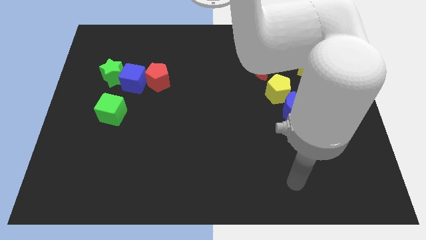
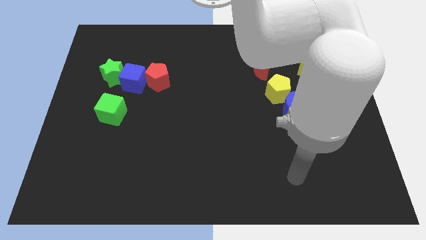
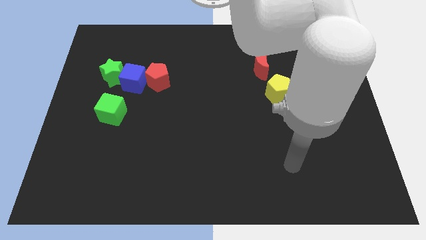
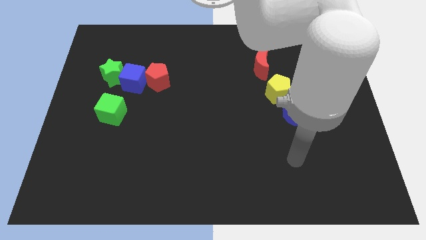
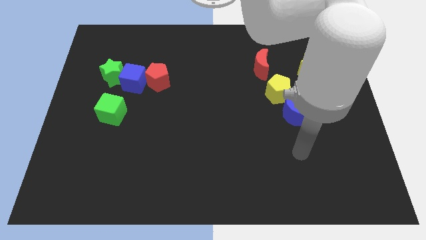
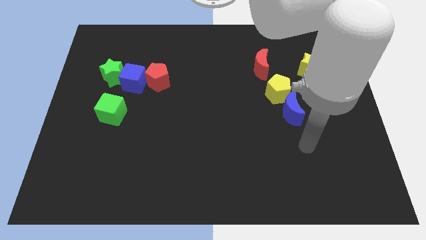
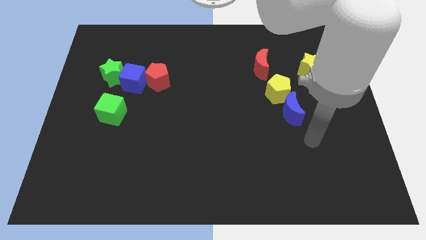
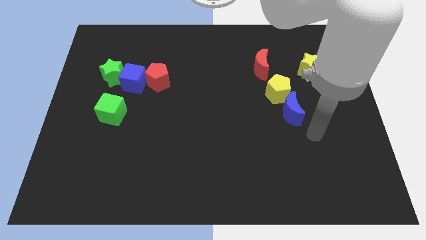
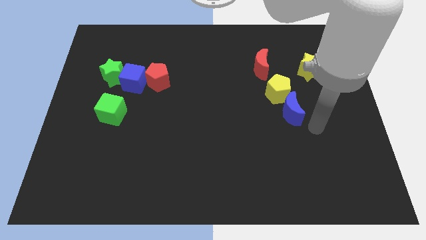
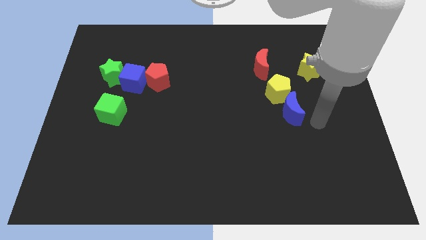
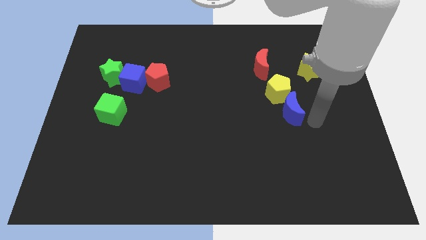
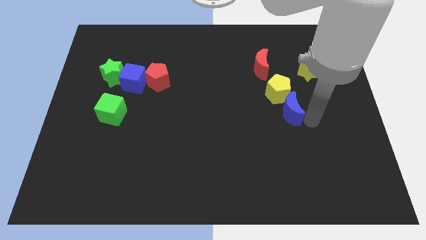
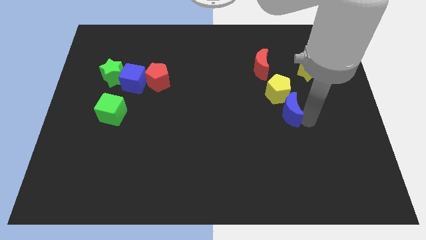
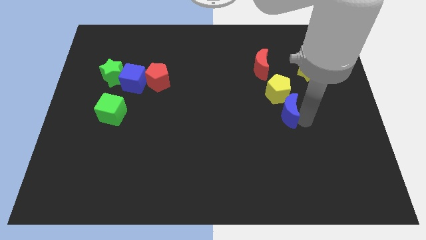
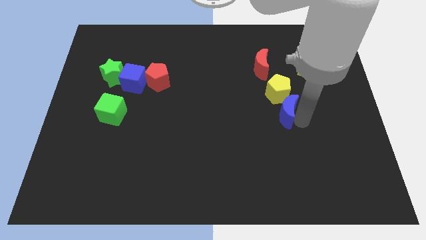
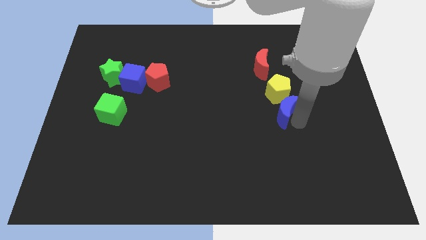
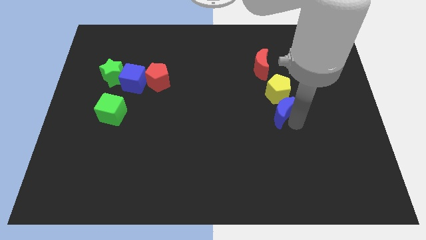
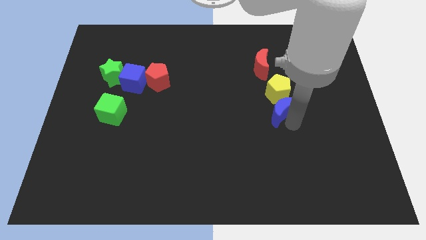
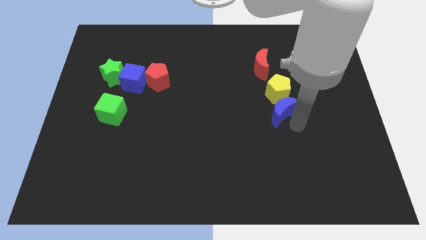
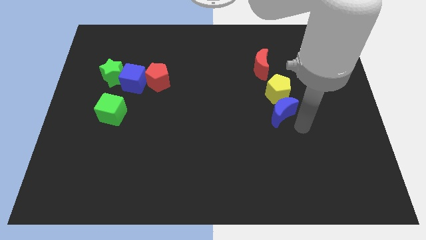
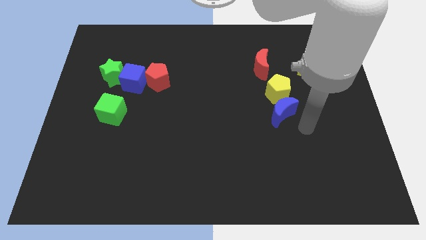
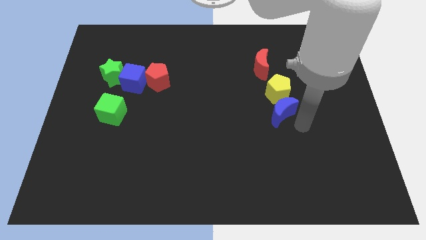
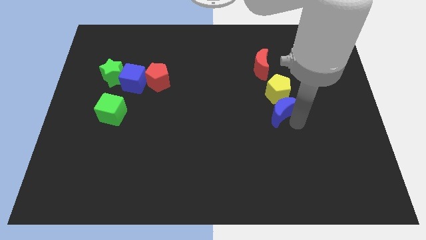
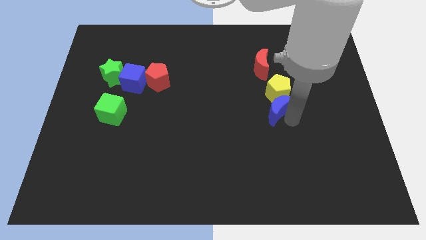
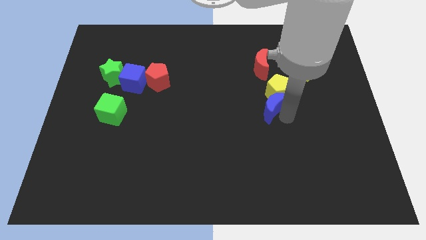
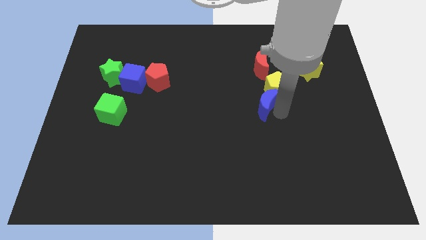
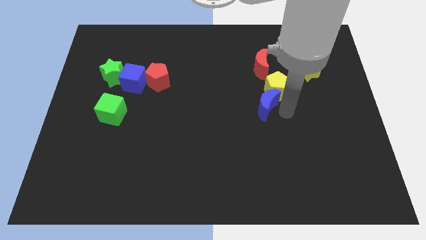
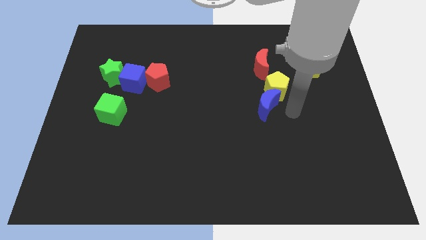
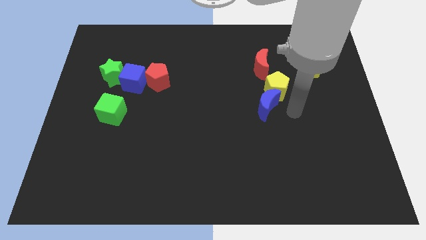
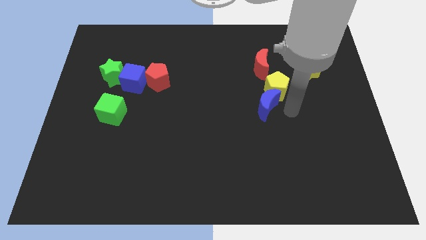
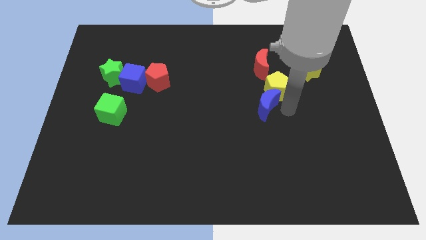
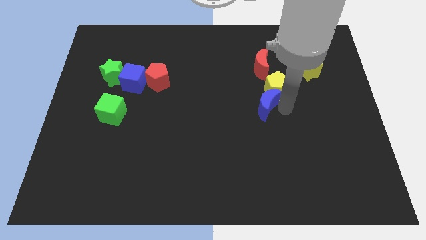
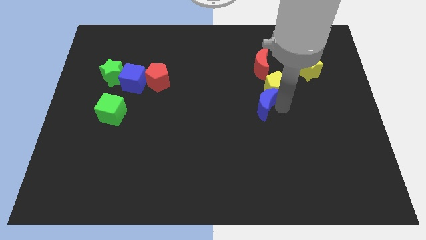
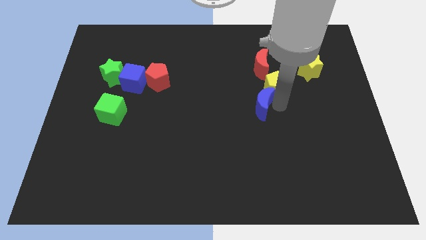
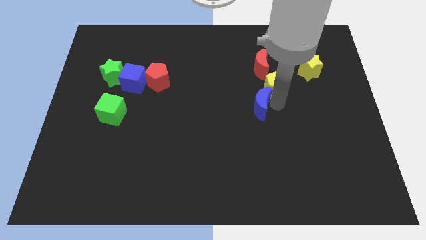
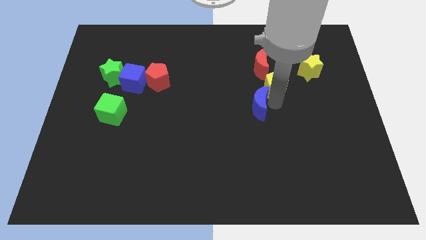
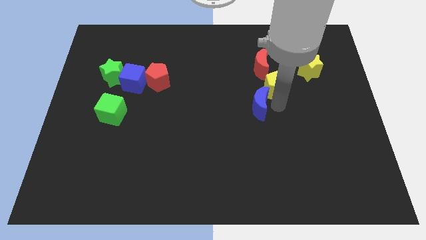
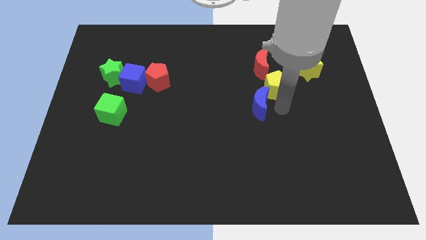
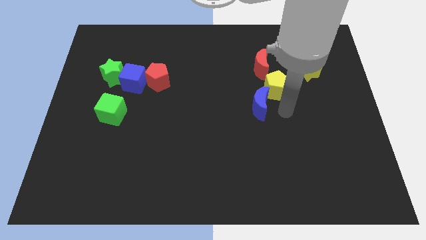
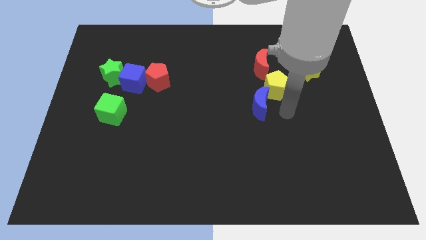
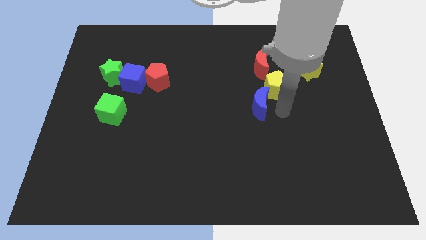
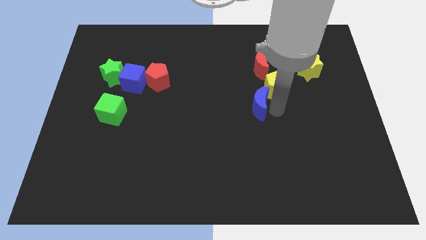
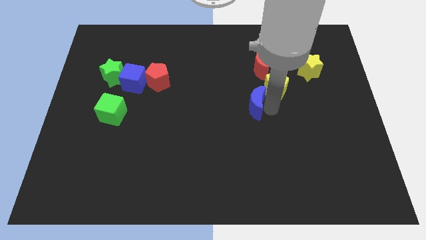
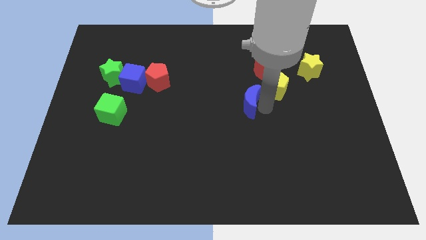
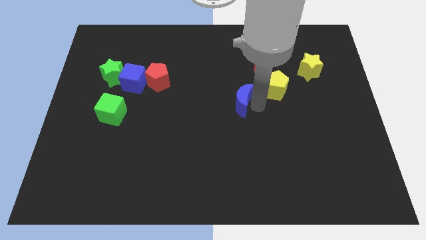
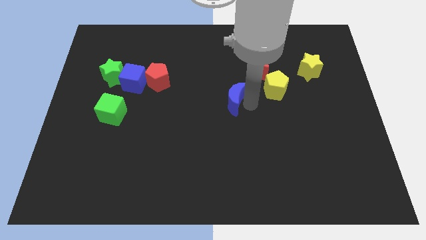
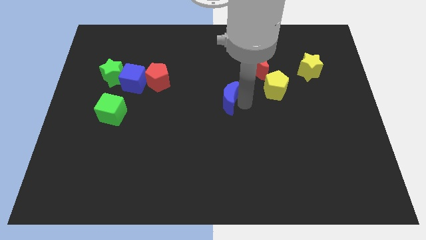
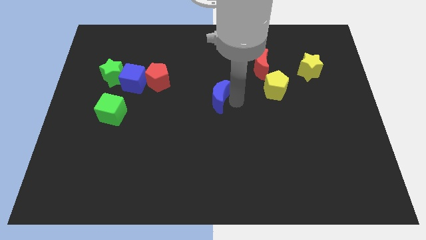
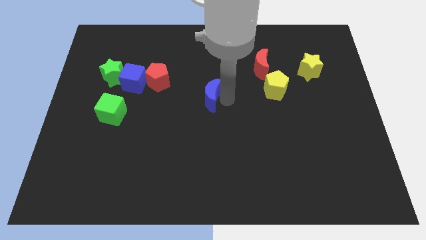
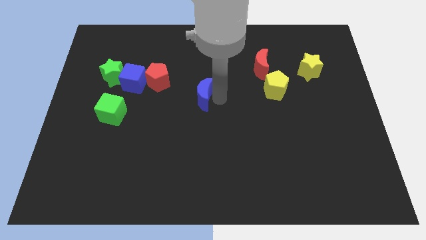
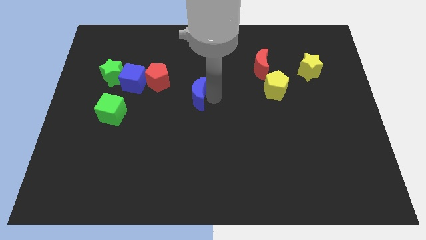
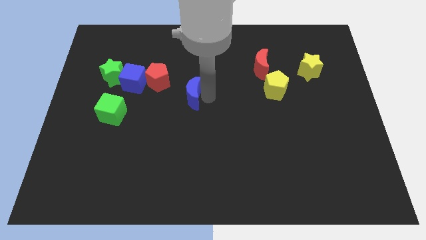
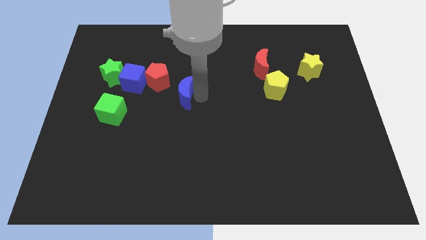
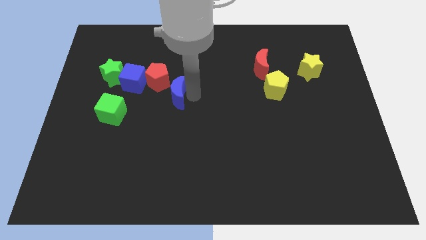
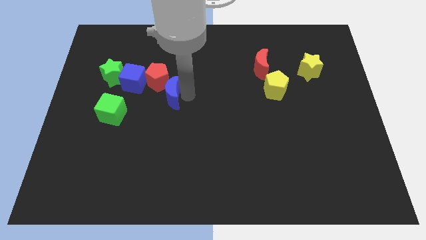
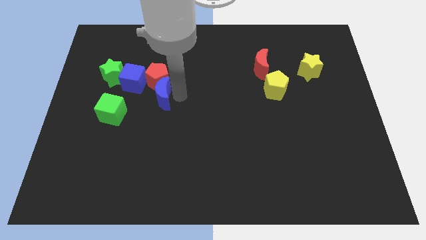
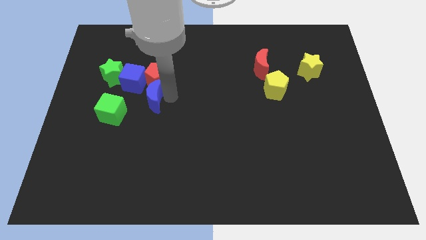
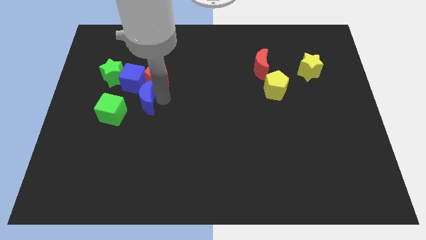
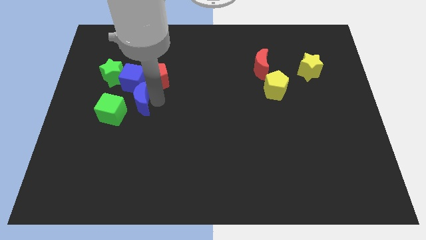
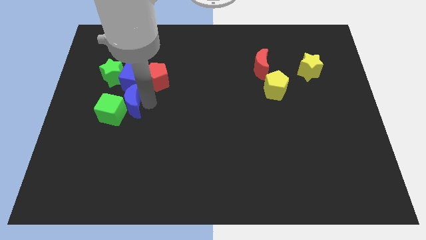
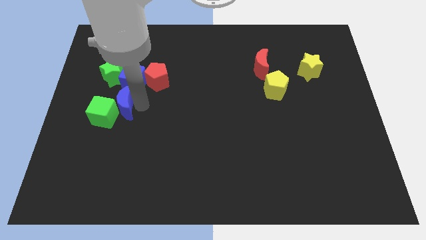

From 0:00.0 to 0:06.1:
move the blue moon to the bottom left side of the blue cube

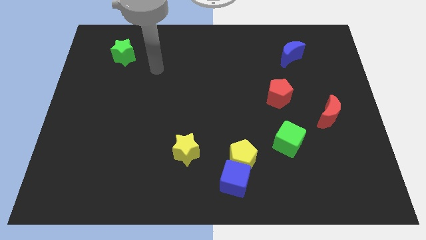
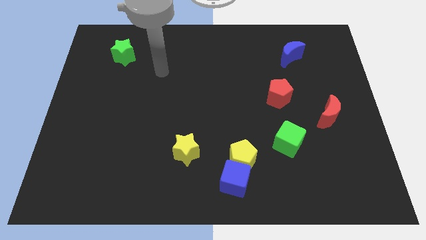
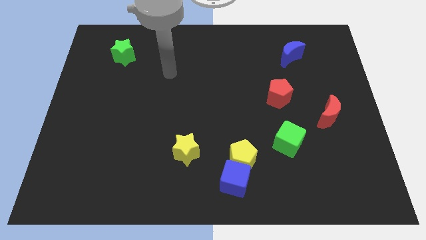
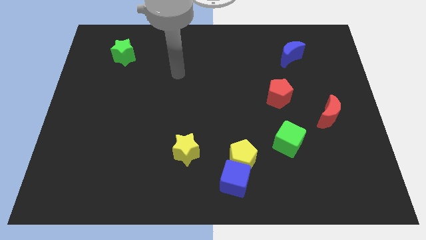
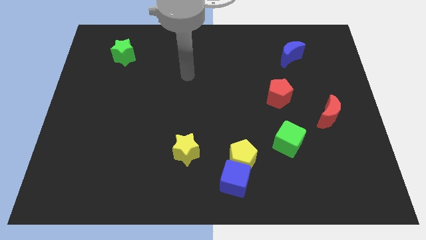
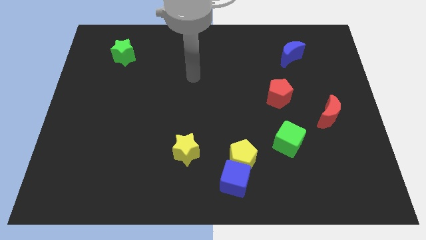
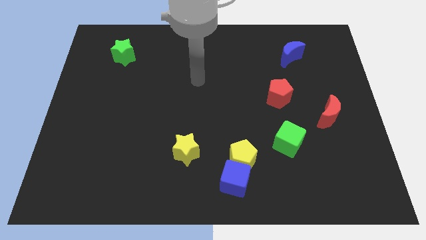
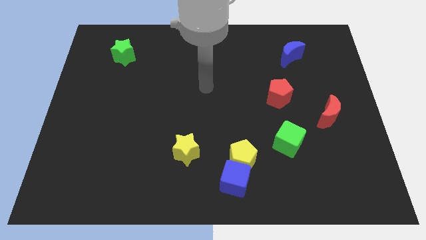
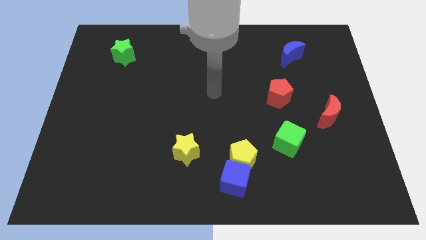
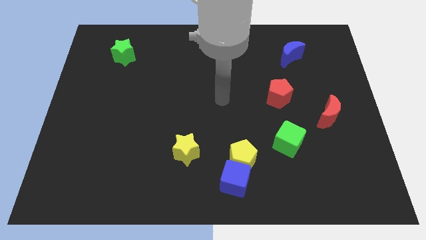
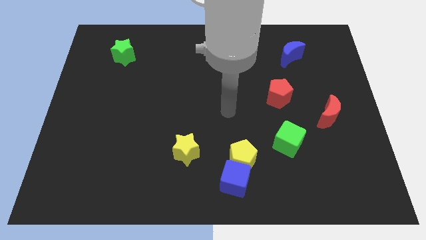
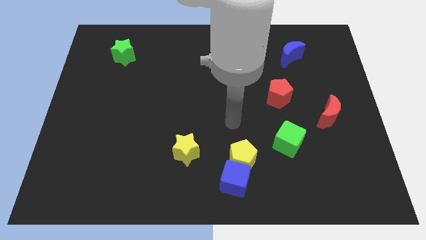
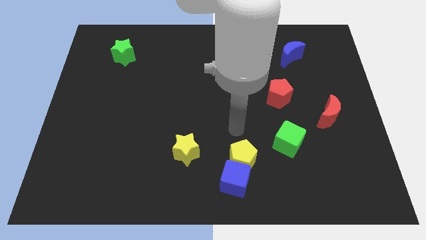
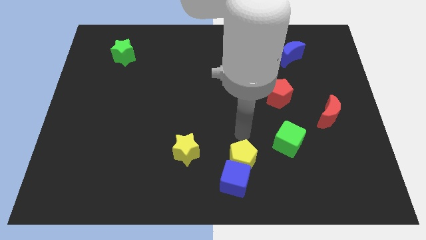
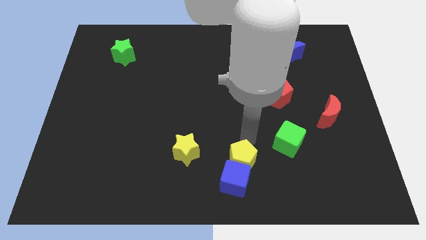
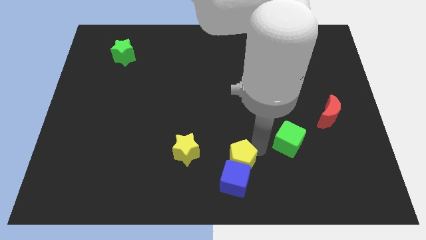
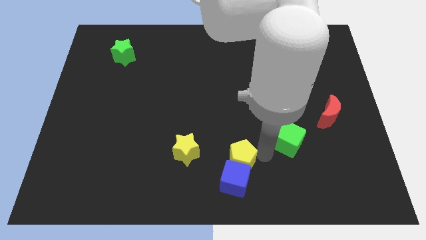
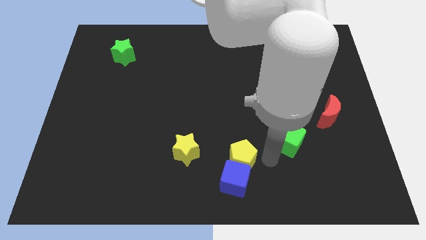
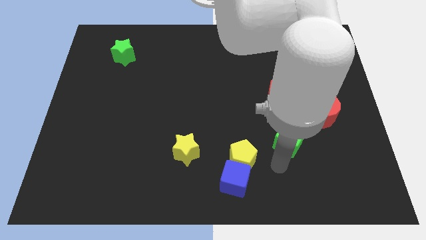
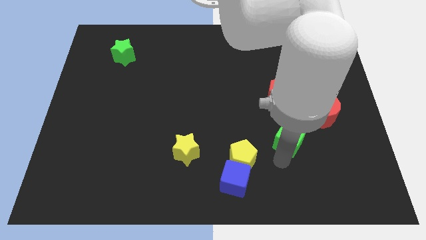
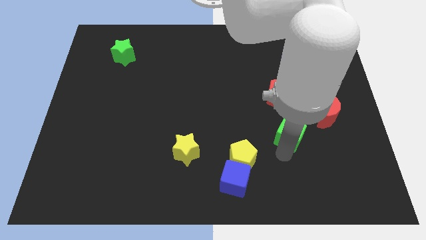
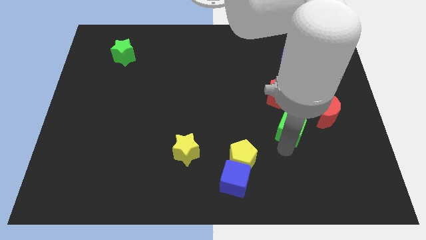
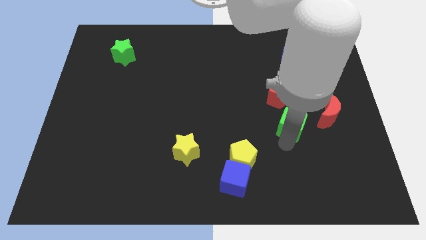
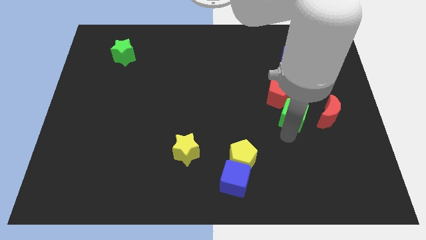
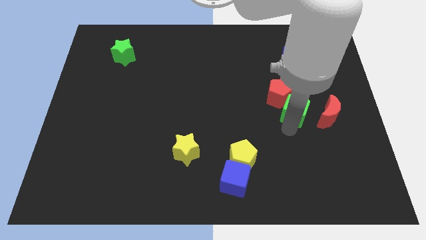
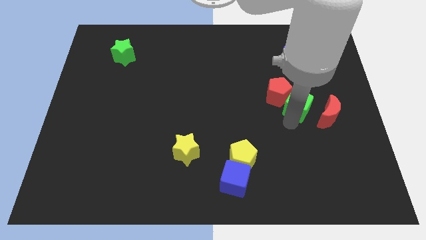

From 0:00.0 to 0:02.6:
move the green cube to the top left of the red moon
